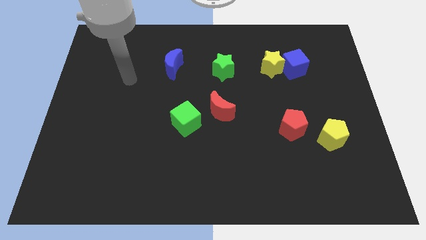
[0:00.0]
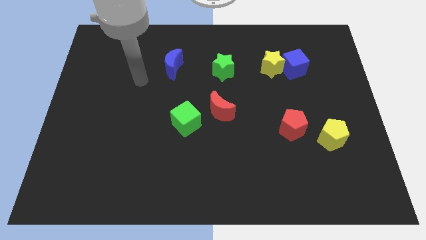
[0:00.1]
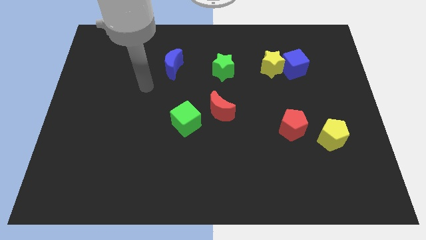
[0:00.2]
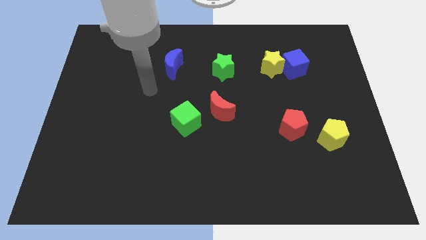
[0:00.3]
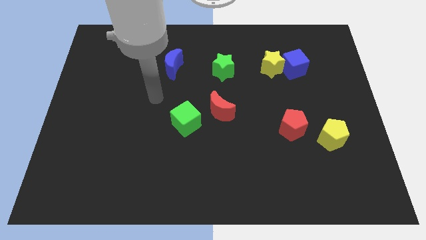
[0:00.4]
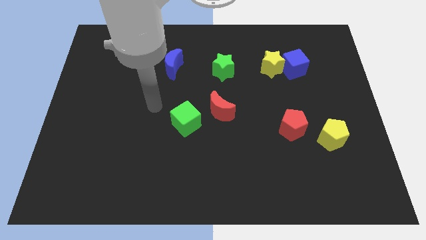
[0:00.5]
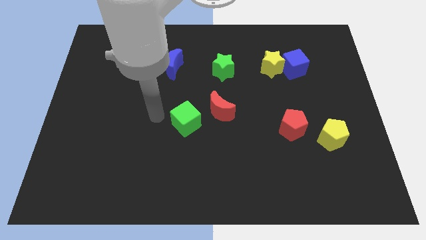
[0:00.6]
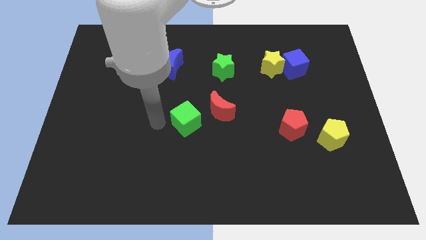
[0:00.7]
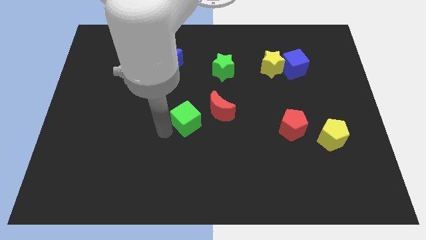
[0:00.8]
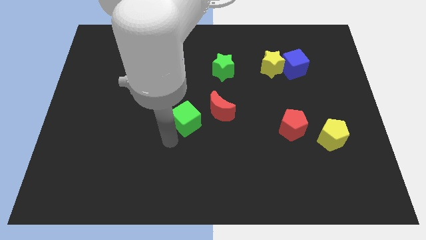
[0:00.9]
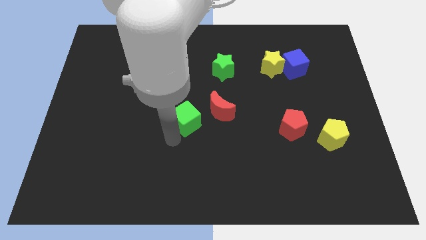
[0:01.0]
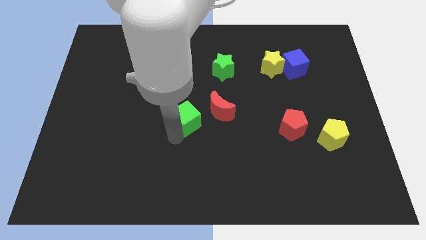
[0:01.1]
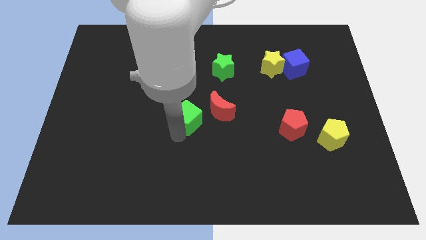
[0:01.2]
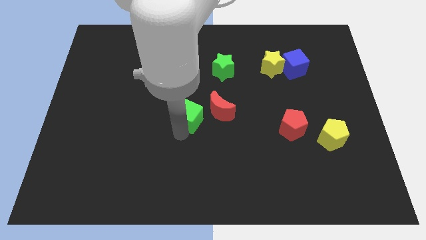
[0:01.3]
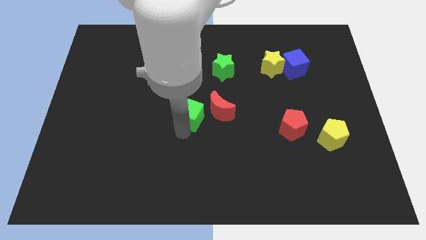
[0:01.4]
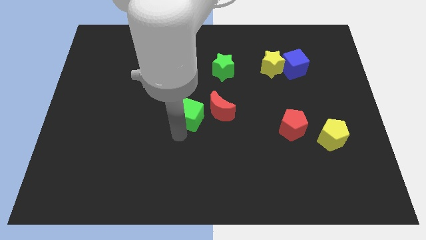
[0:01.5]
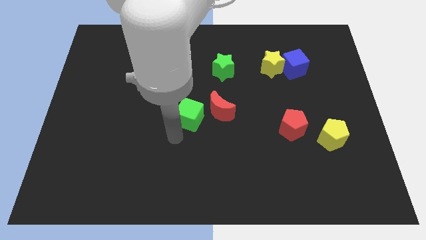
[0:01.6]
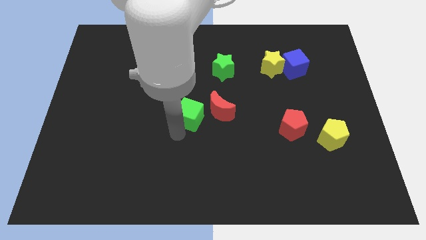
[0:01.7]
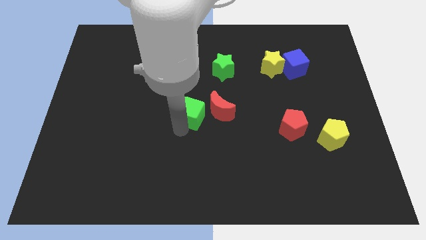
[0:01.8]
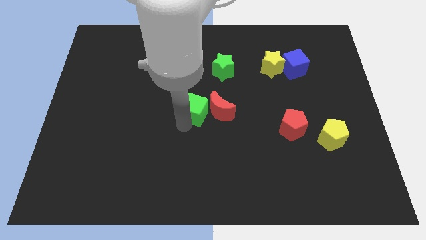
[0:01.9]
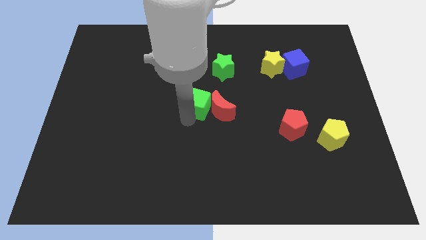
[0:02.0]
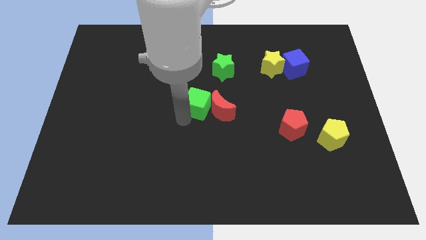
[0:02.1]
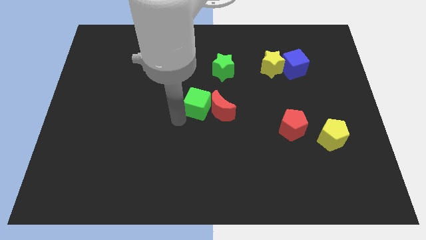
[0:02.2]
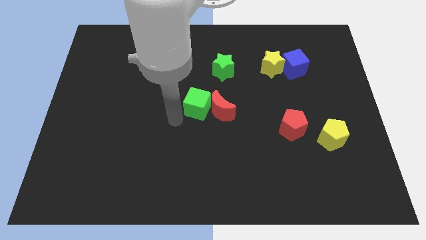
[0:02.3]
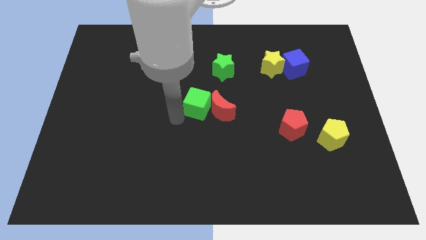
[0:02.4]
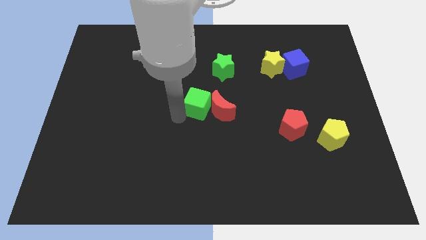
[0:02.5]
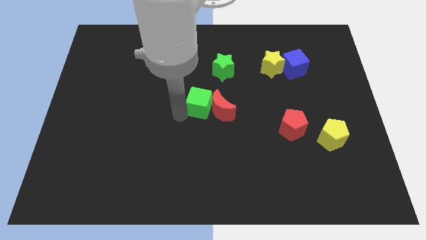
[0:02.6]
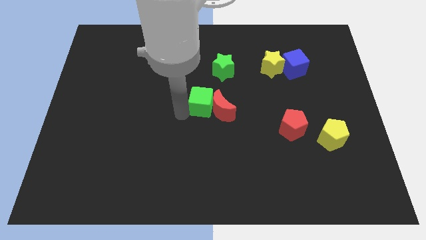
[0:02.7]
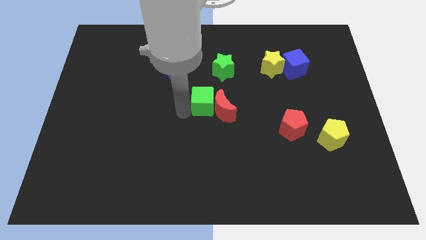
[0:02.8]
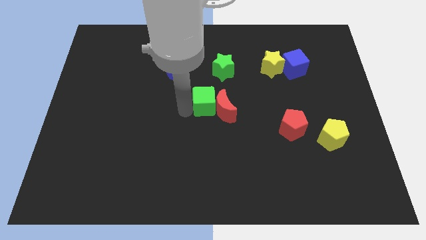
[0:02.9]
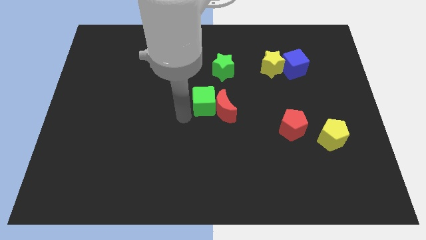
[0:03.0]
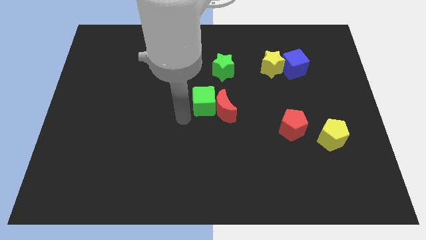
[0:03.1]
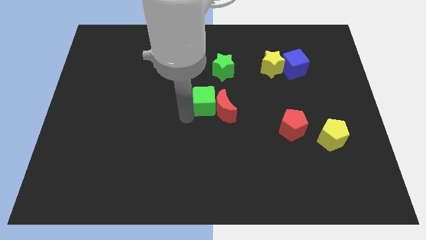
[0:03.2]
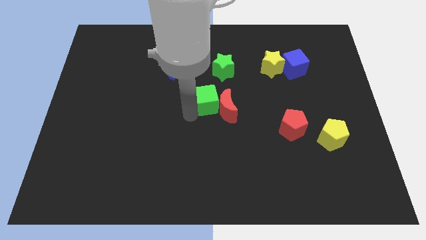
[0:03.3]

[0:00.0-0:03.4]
slightly slide the green cube upwards and to the right diagonally

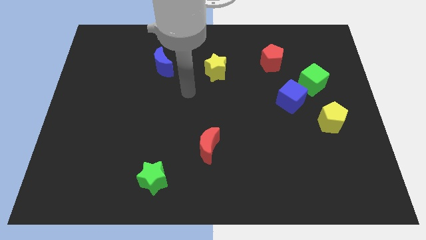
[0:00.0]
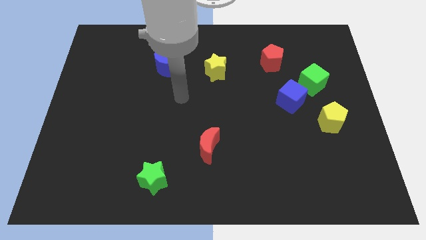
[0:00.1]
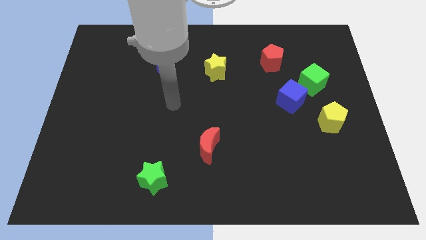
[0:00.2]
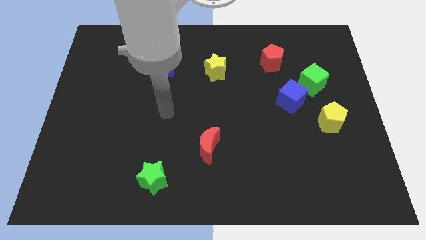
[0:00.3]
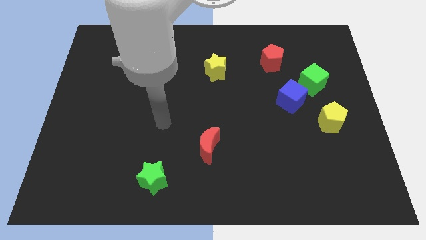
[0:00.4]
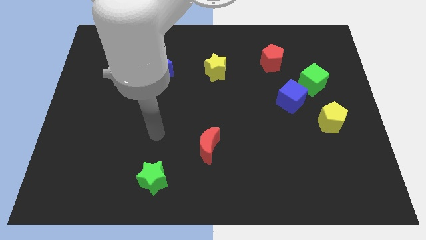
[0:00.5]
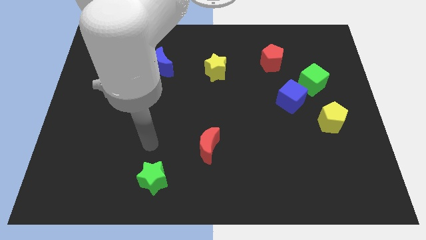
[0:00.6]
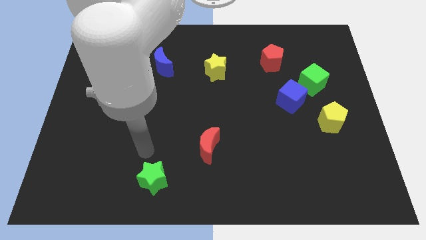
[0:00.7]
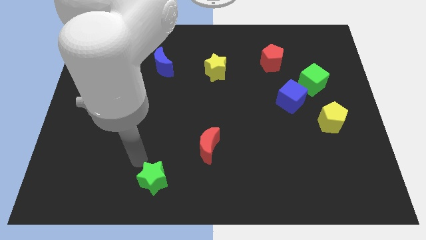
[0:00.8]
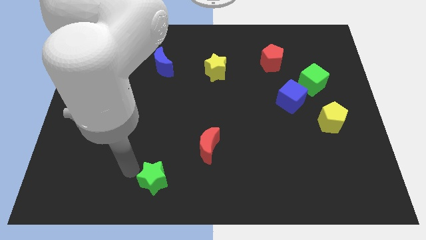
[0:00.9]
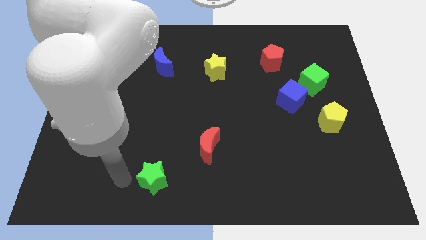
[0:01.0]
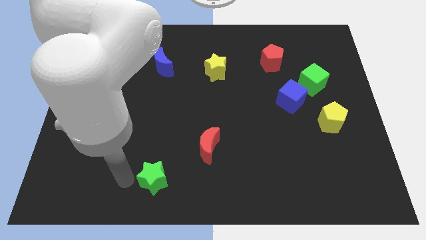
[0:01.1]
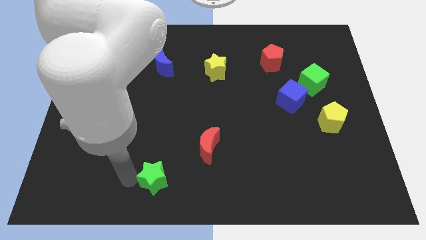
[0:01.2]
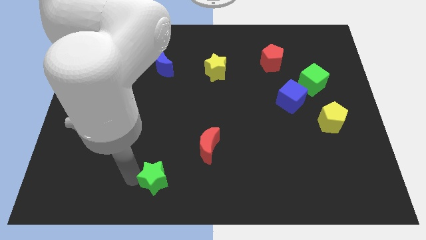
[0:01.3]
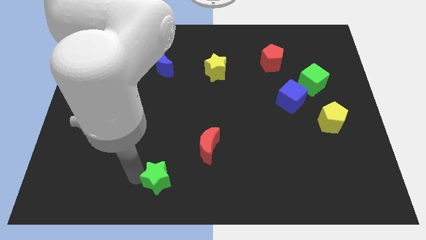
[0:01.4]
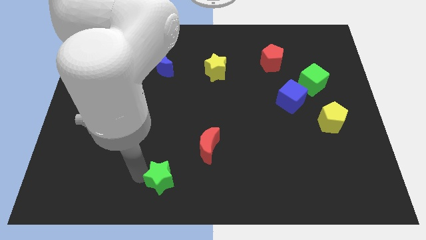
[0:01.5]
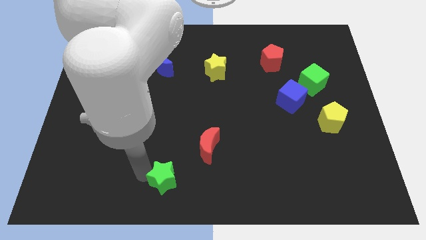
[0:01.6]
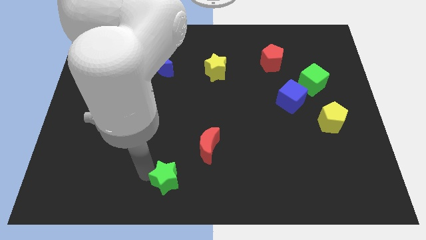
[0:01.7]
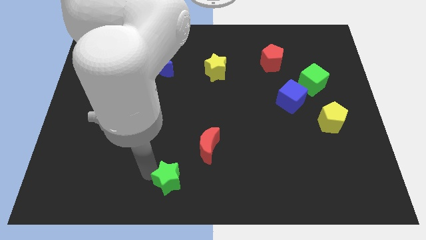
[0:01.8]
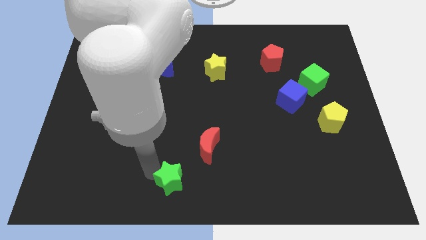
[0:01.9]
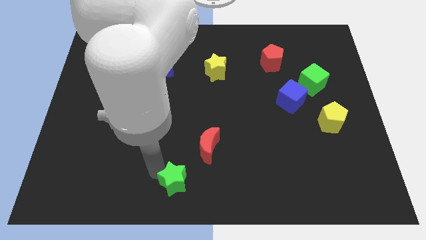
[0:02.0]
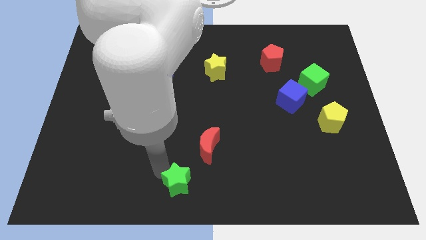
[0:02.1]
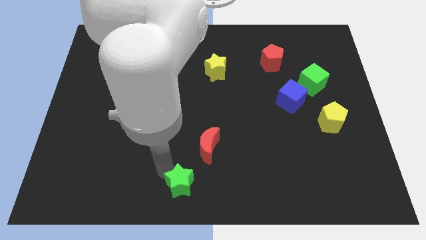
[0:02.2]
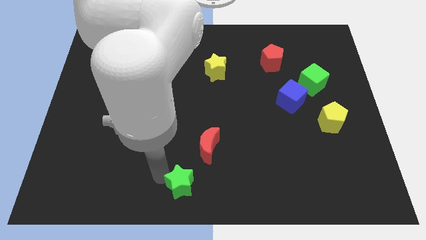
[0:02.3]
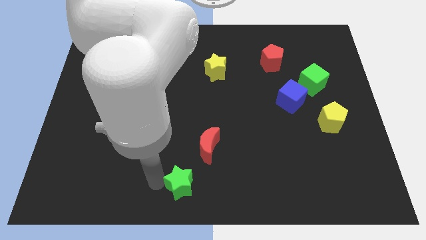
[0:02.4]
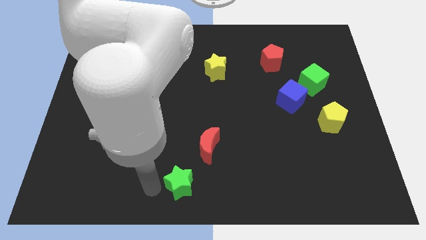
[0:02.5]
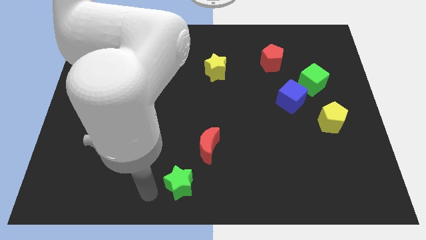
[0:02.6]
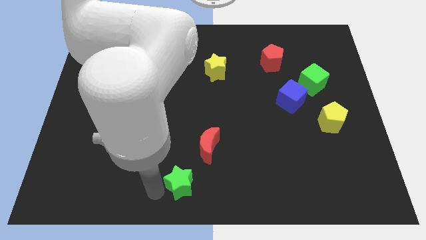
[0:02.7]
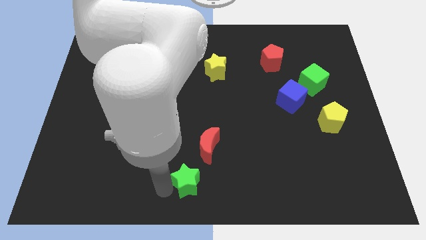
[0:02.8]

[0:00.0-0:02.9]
slightly move the green star right

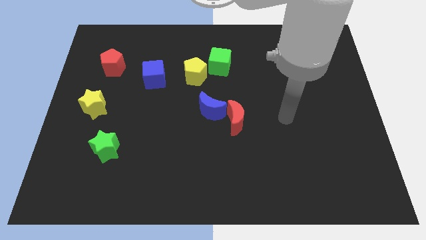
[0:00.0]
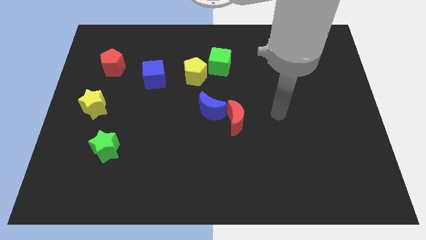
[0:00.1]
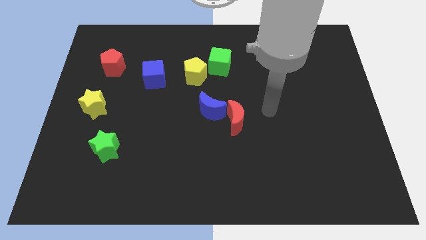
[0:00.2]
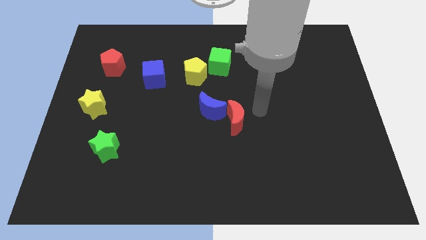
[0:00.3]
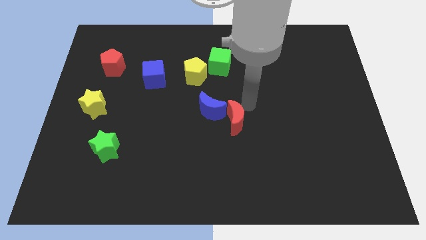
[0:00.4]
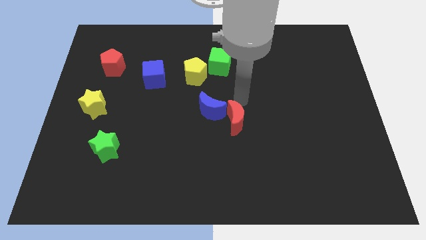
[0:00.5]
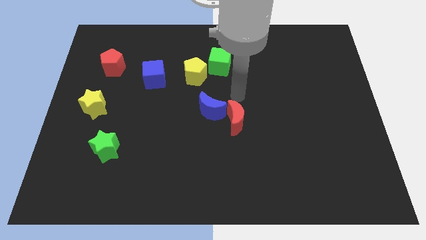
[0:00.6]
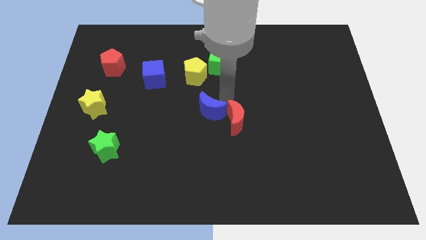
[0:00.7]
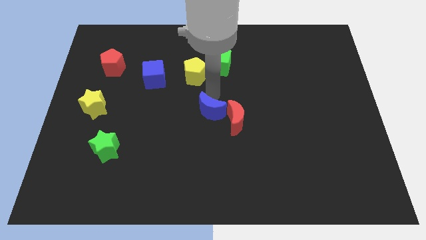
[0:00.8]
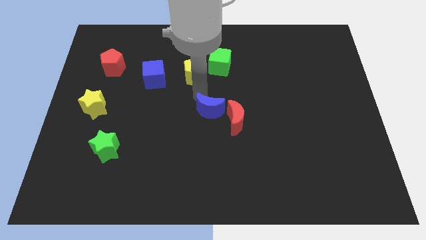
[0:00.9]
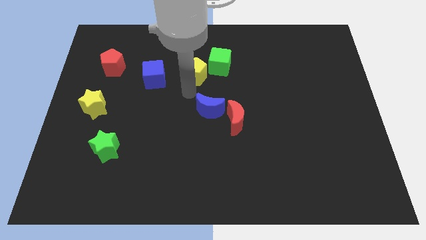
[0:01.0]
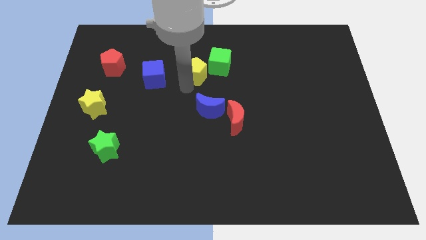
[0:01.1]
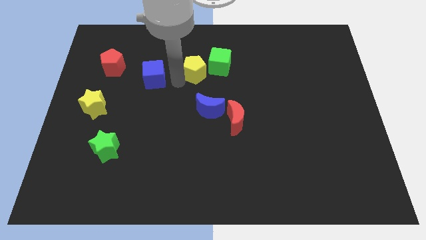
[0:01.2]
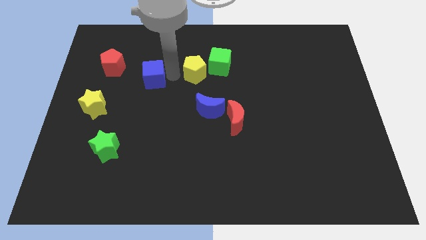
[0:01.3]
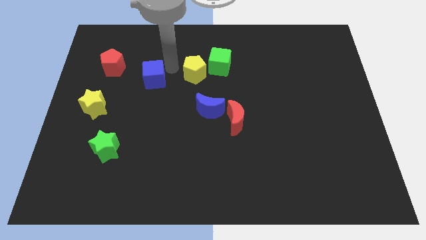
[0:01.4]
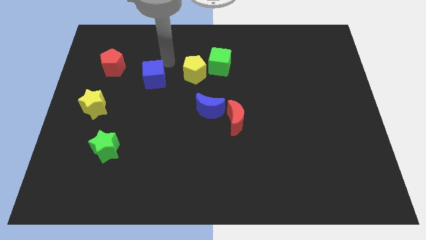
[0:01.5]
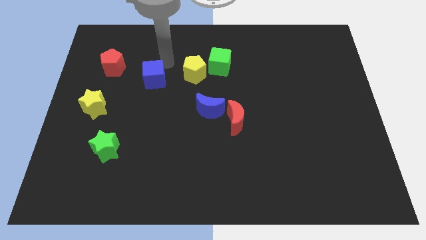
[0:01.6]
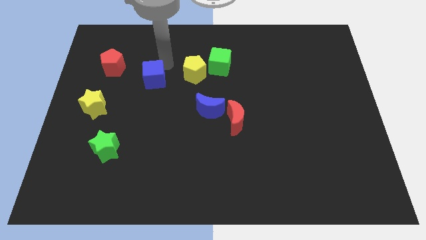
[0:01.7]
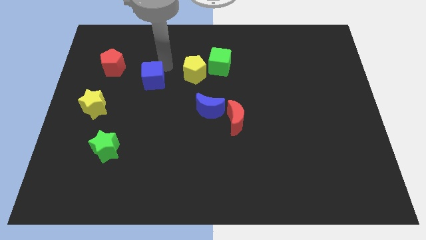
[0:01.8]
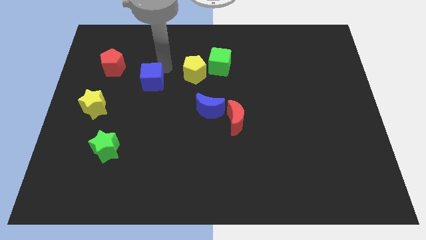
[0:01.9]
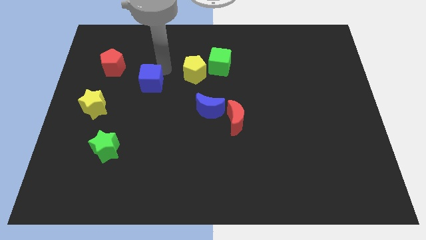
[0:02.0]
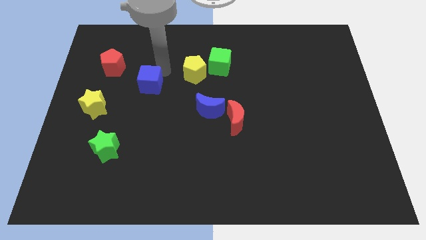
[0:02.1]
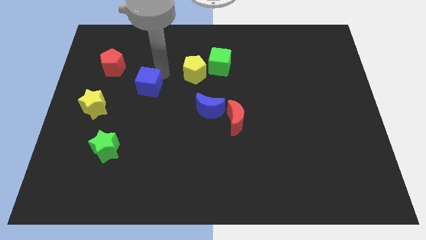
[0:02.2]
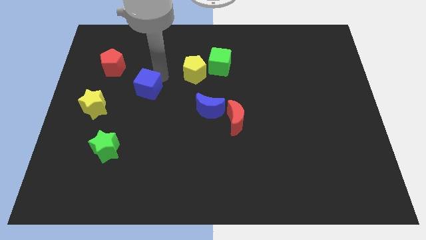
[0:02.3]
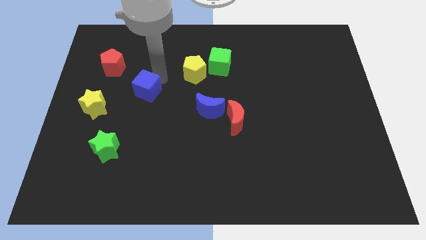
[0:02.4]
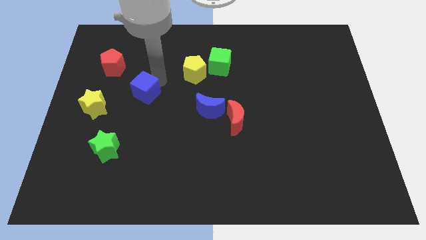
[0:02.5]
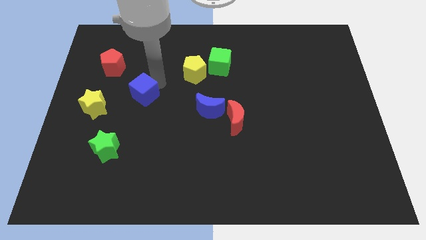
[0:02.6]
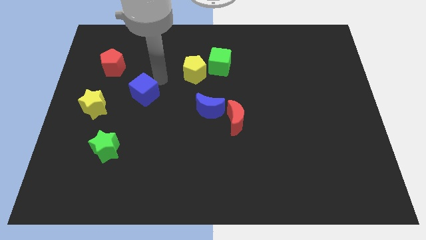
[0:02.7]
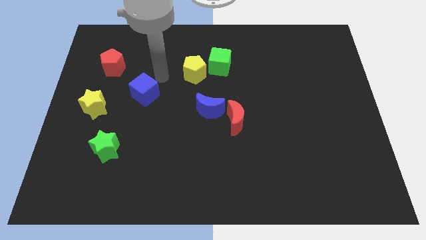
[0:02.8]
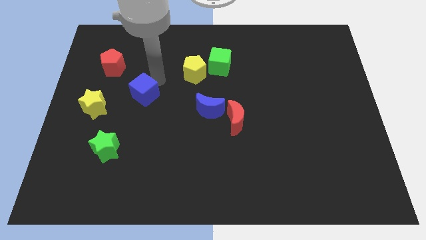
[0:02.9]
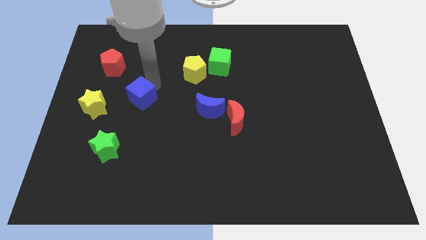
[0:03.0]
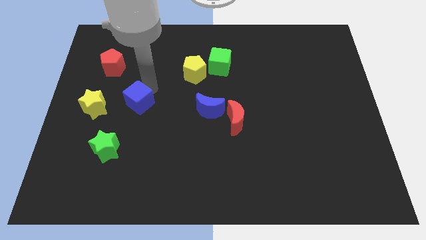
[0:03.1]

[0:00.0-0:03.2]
slightly move the blue cube downwards and left diagonally
